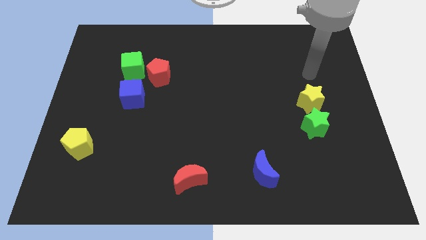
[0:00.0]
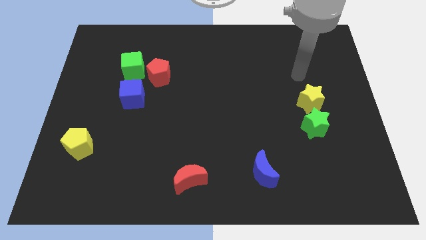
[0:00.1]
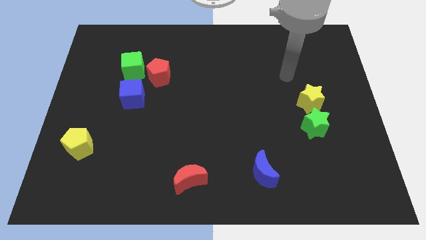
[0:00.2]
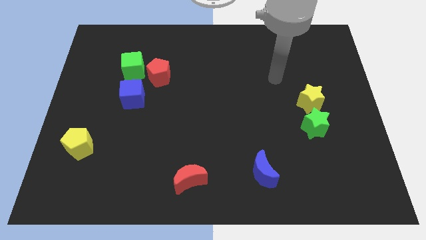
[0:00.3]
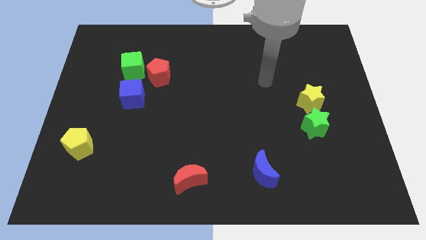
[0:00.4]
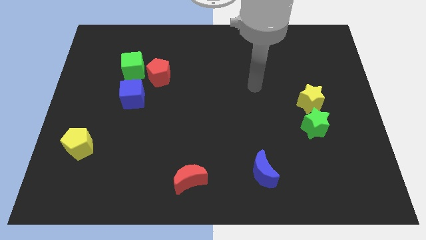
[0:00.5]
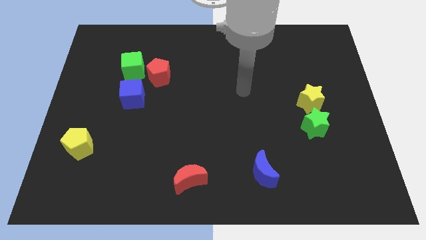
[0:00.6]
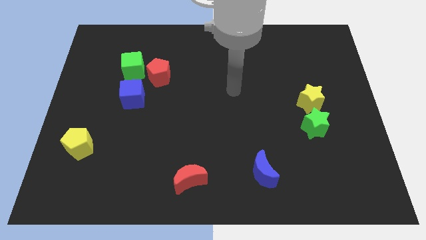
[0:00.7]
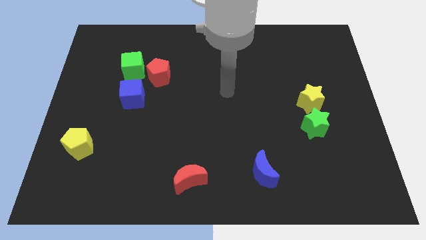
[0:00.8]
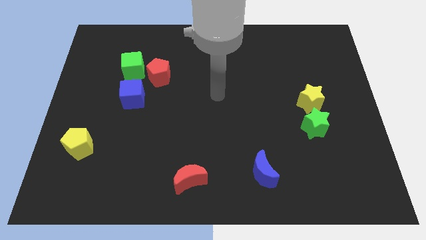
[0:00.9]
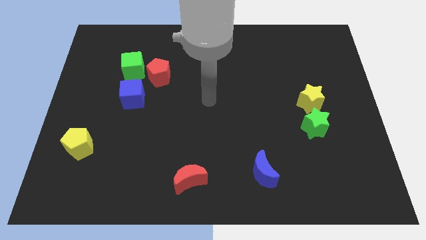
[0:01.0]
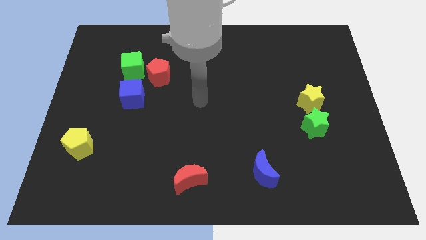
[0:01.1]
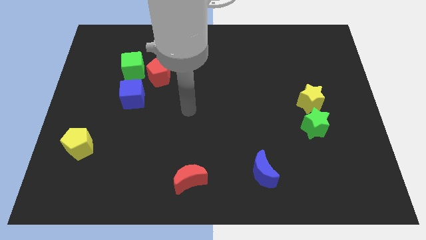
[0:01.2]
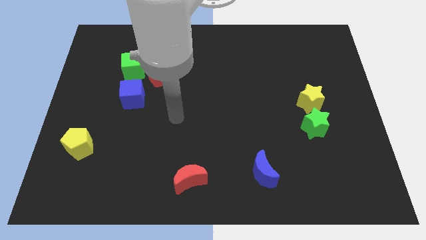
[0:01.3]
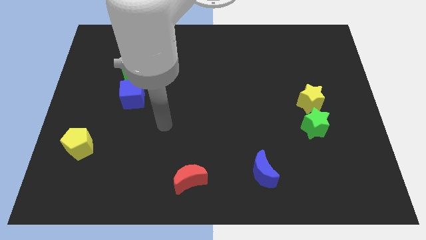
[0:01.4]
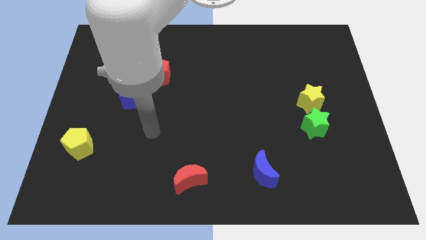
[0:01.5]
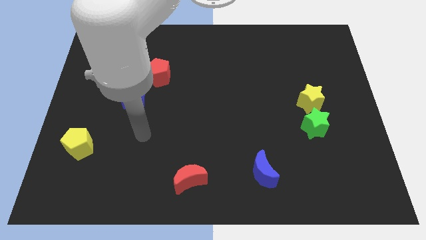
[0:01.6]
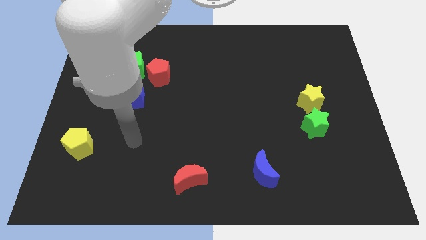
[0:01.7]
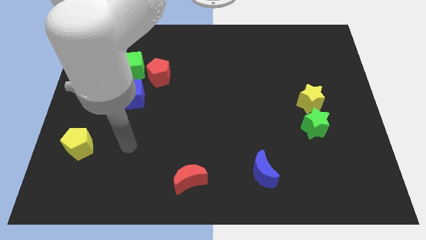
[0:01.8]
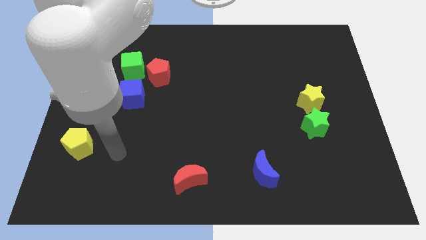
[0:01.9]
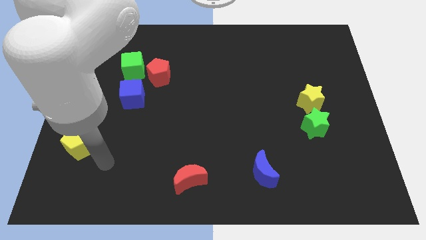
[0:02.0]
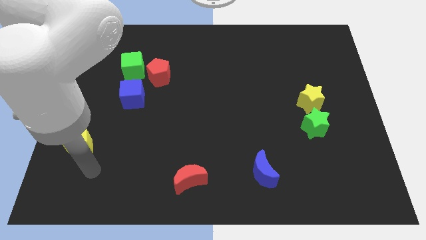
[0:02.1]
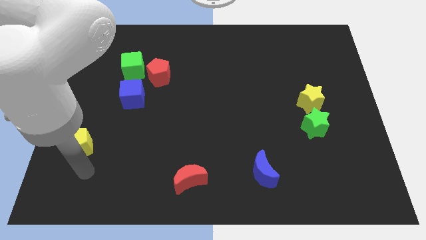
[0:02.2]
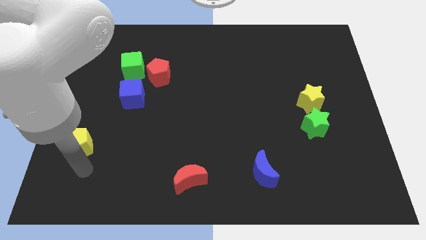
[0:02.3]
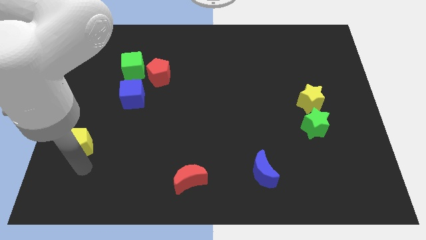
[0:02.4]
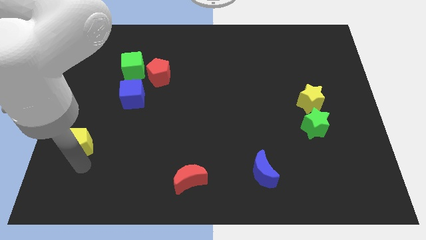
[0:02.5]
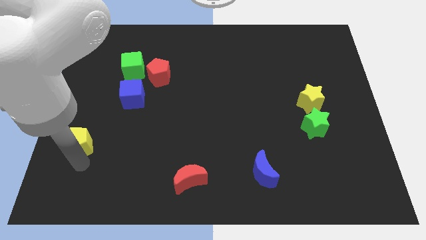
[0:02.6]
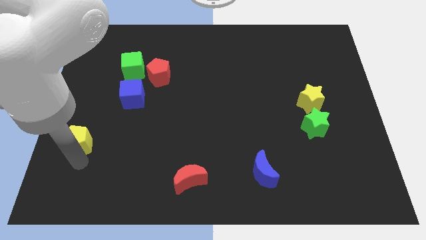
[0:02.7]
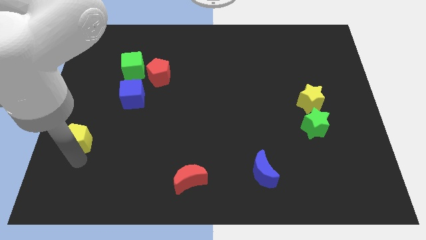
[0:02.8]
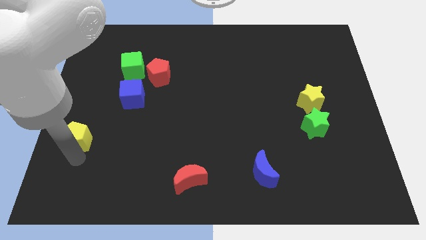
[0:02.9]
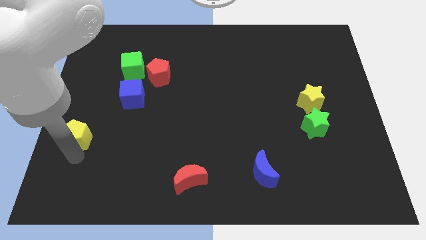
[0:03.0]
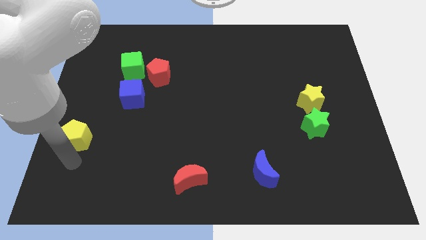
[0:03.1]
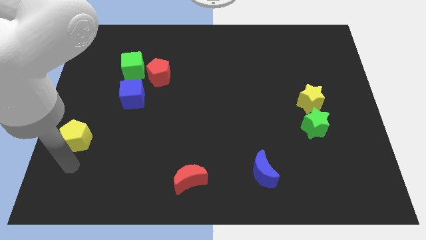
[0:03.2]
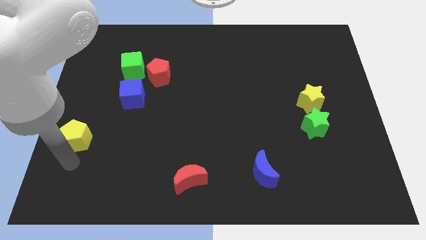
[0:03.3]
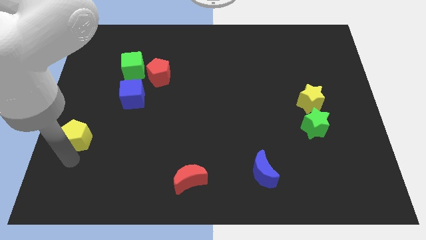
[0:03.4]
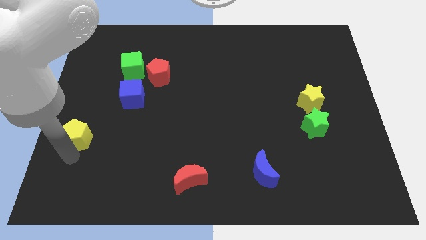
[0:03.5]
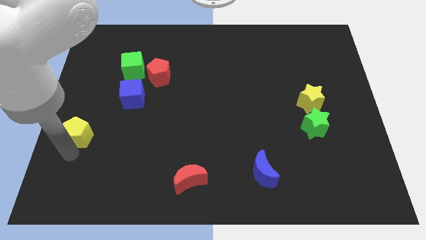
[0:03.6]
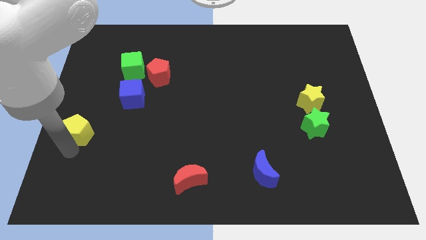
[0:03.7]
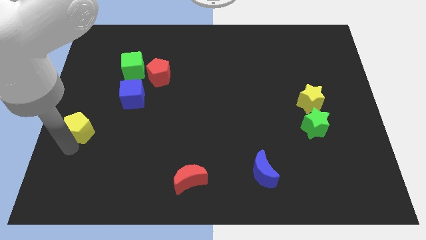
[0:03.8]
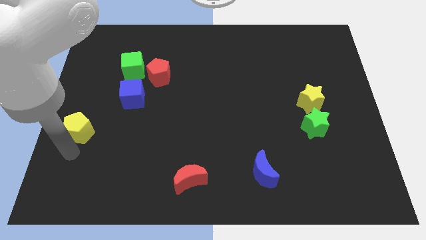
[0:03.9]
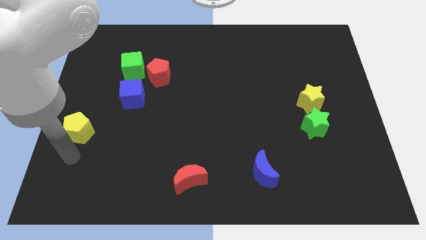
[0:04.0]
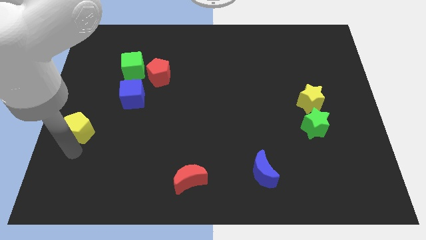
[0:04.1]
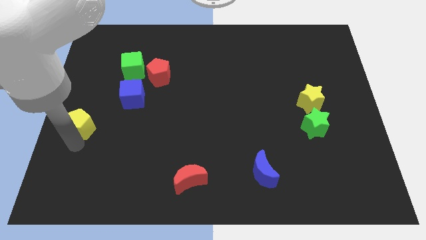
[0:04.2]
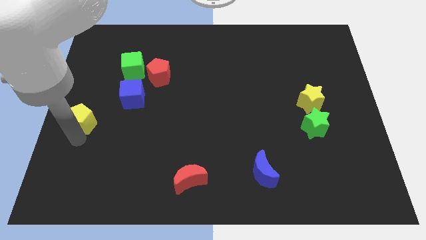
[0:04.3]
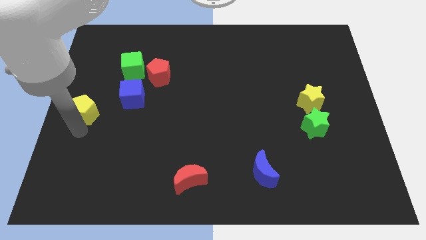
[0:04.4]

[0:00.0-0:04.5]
move the yellow pentagon a little upwards

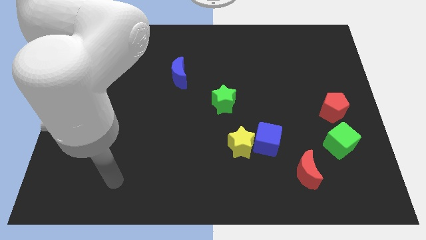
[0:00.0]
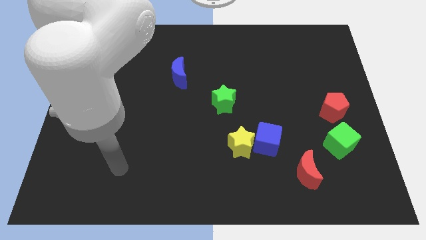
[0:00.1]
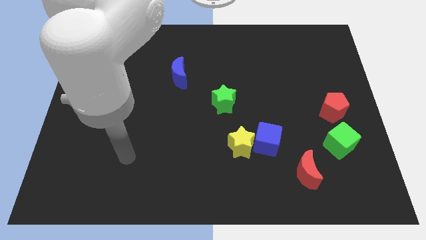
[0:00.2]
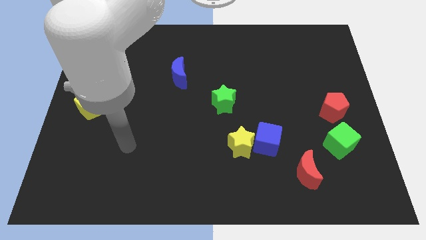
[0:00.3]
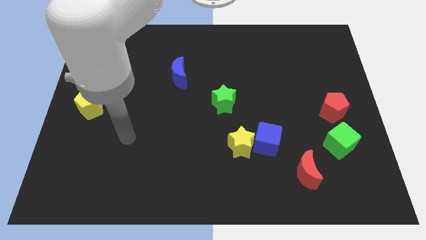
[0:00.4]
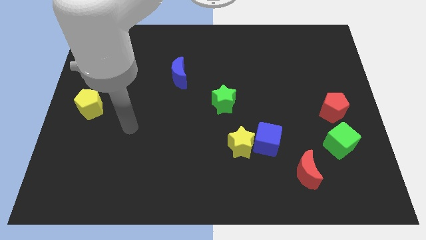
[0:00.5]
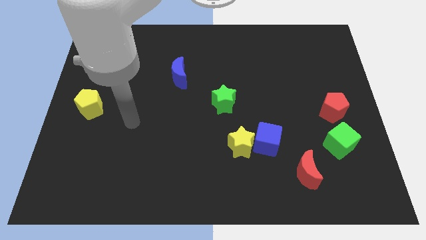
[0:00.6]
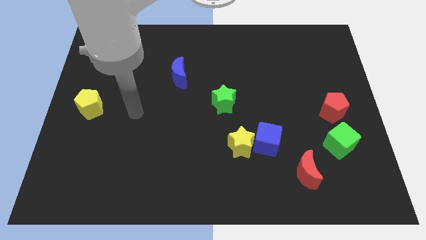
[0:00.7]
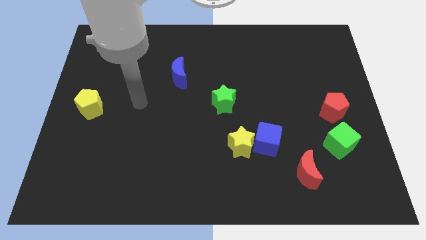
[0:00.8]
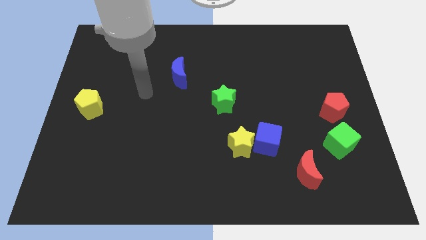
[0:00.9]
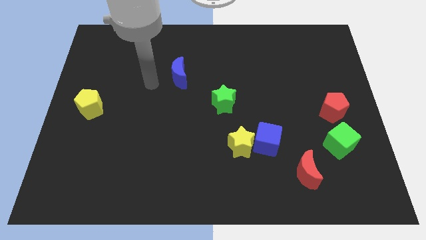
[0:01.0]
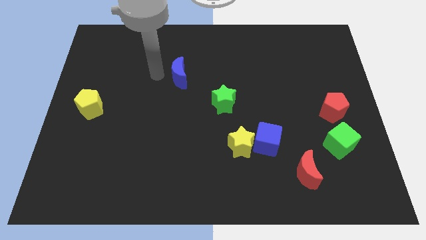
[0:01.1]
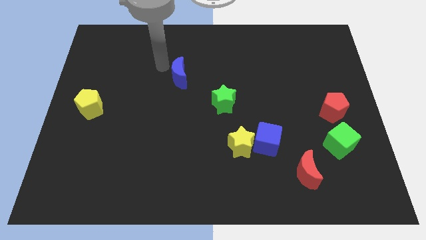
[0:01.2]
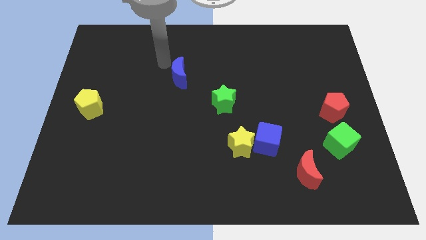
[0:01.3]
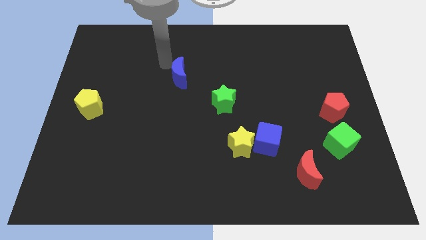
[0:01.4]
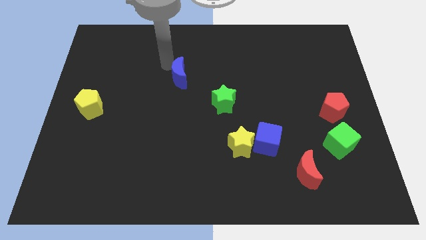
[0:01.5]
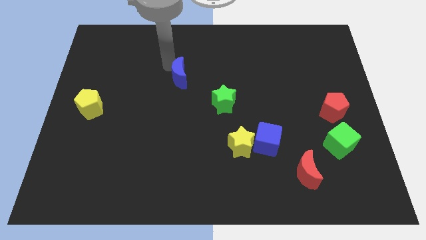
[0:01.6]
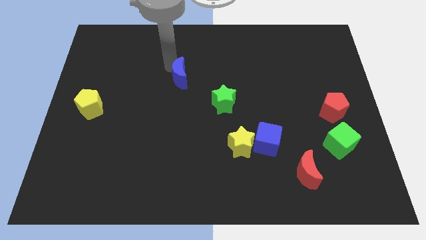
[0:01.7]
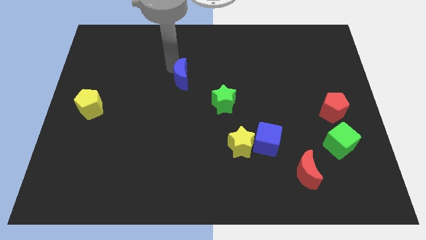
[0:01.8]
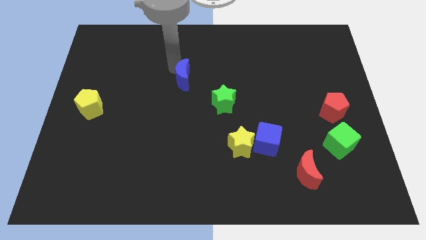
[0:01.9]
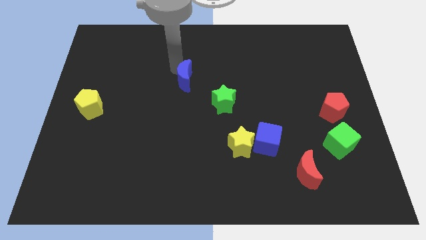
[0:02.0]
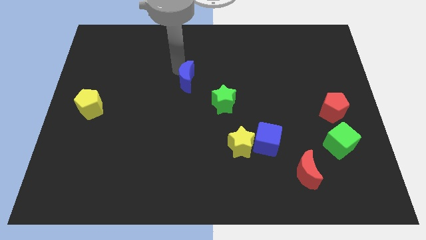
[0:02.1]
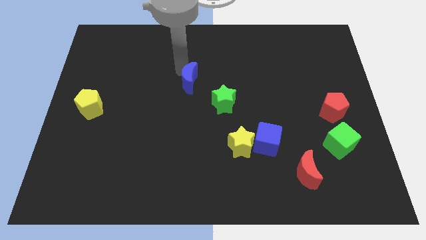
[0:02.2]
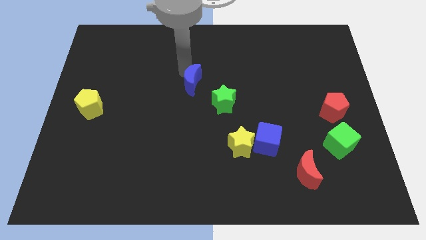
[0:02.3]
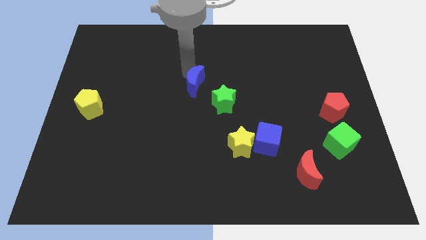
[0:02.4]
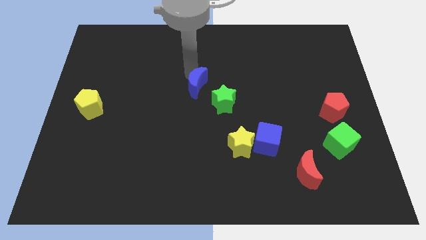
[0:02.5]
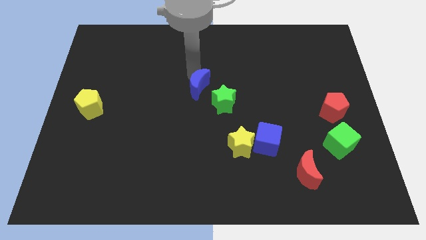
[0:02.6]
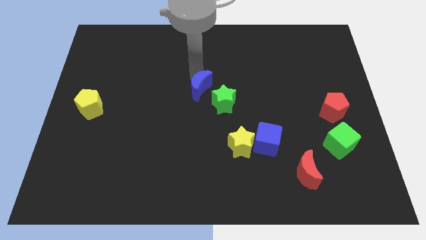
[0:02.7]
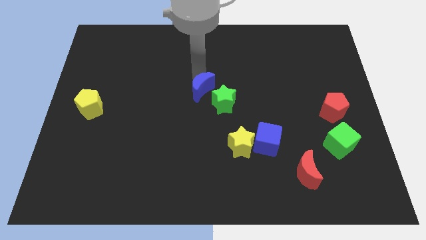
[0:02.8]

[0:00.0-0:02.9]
push the blue moon down and right somewhat

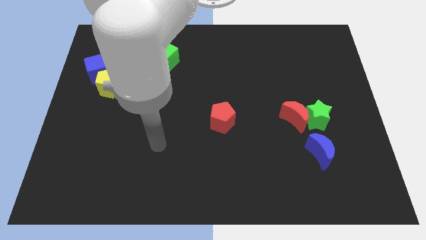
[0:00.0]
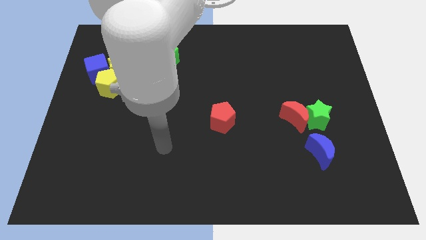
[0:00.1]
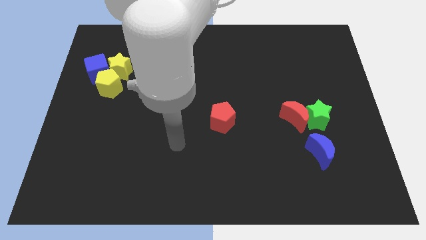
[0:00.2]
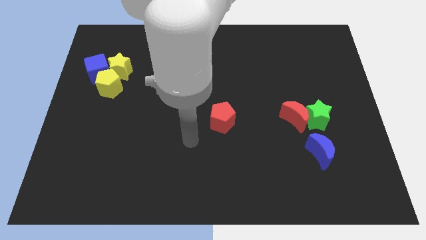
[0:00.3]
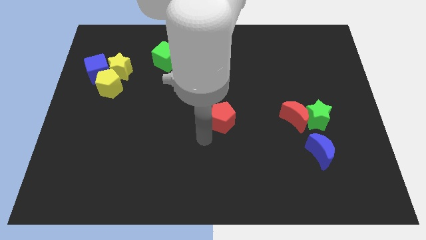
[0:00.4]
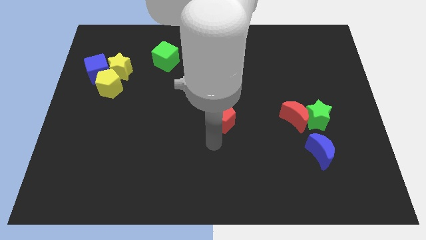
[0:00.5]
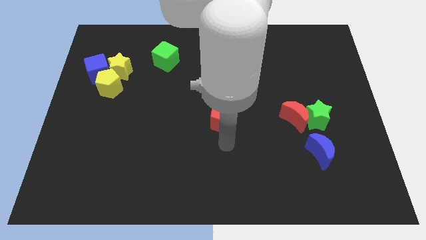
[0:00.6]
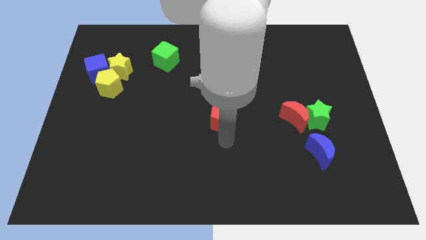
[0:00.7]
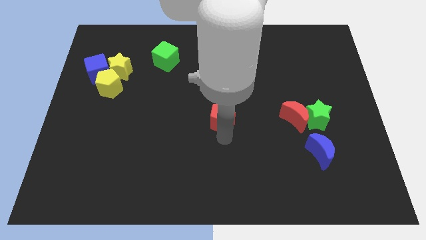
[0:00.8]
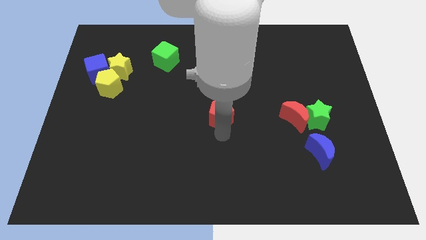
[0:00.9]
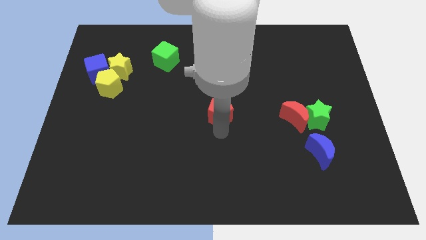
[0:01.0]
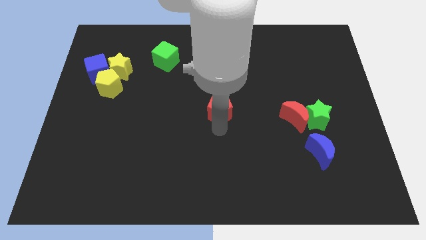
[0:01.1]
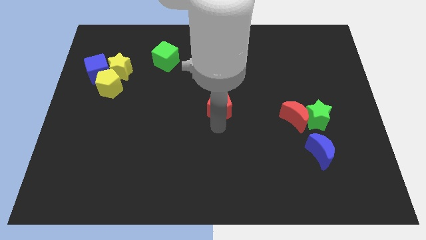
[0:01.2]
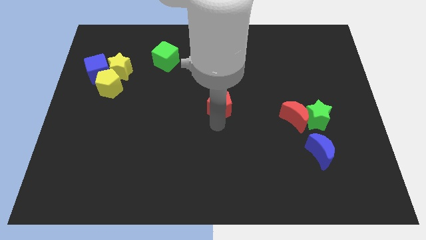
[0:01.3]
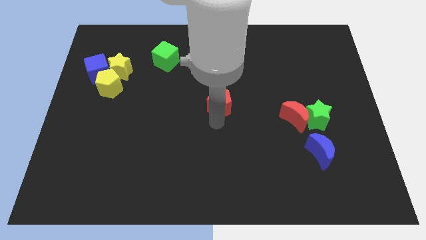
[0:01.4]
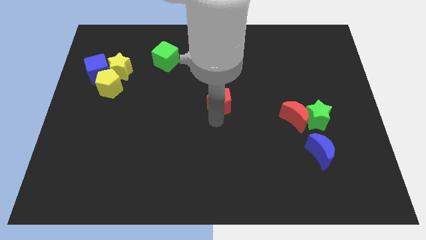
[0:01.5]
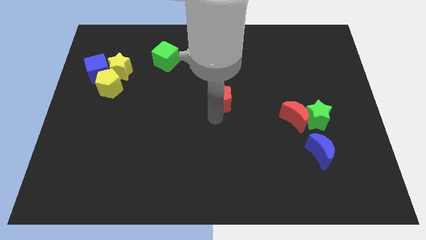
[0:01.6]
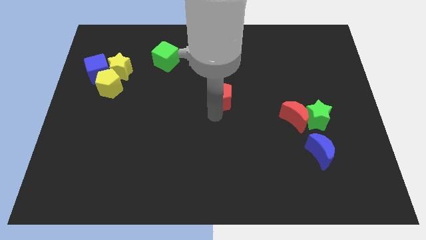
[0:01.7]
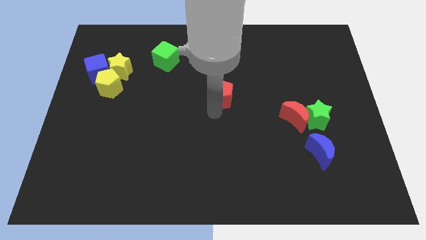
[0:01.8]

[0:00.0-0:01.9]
slide the red pentagon upwards somewhat
